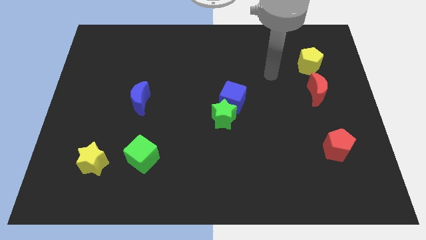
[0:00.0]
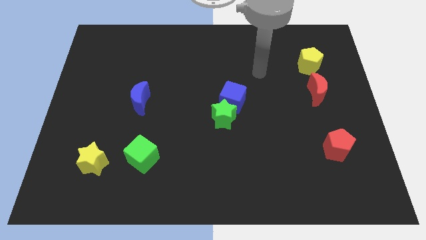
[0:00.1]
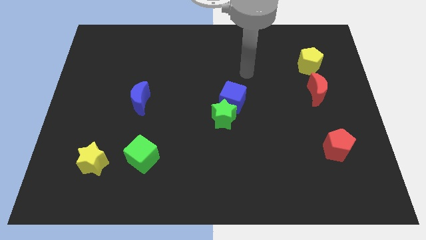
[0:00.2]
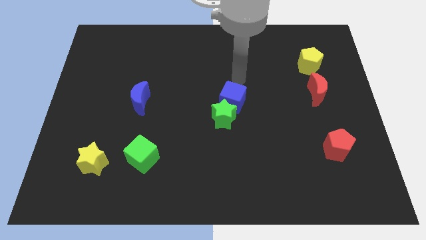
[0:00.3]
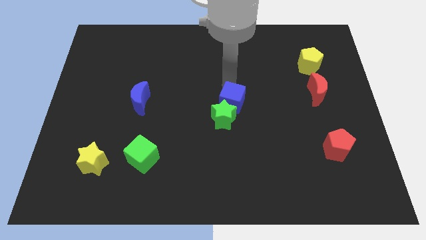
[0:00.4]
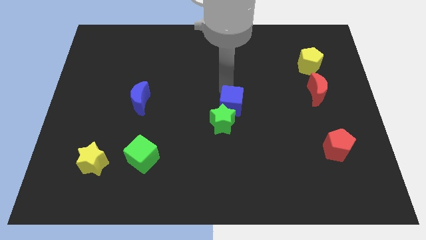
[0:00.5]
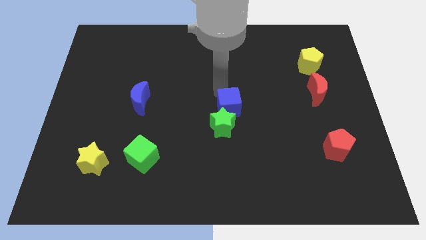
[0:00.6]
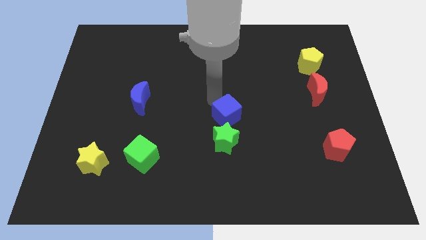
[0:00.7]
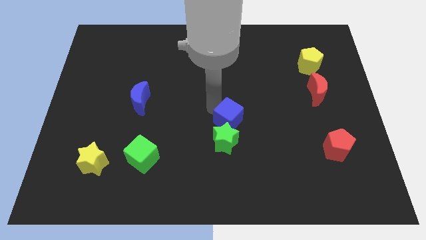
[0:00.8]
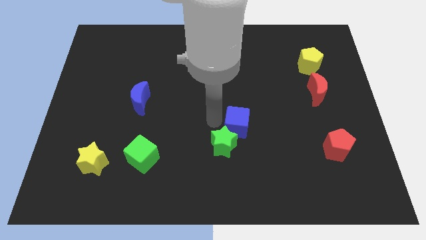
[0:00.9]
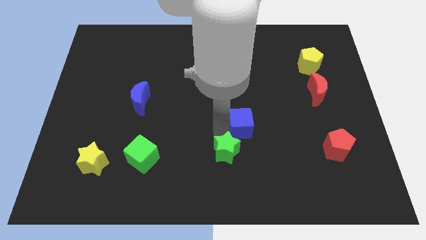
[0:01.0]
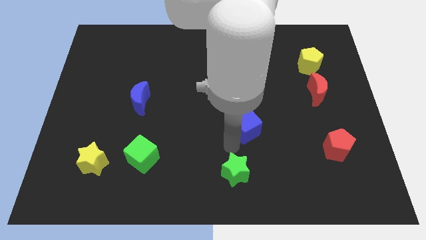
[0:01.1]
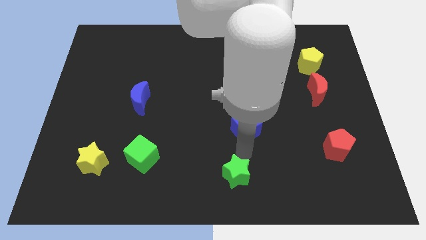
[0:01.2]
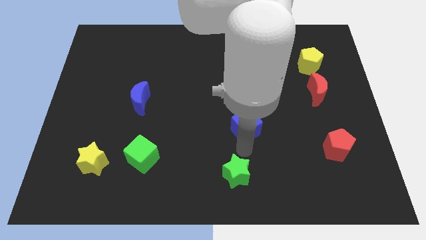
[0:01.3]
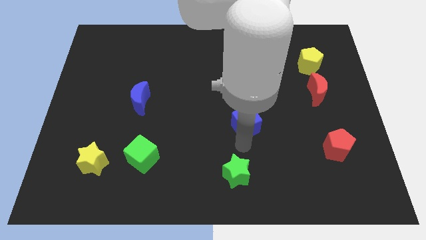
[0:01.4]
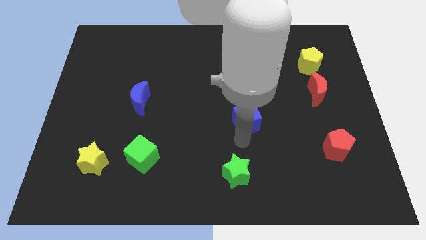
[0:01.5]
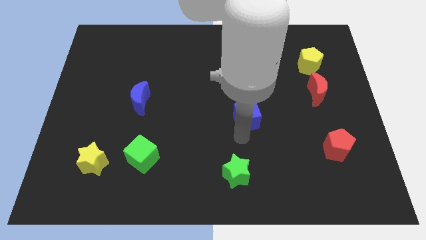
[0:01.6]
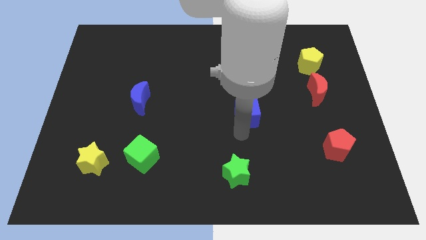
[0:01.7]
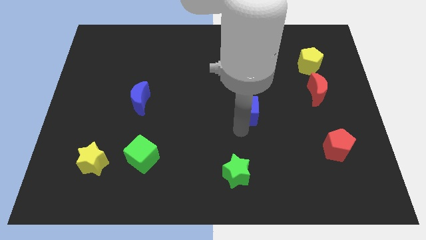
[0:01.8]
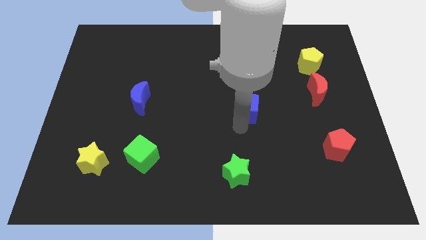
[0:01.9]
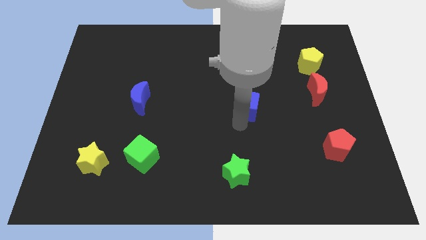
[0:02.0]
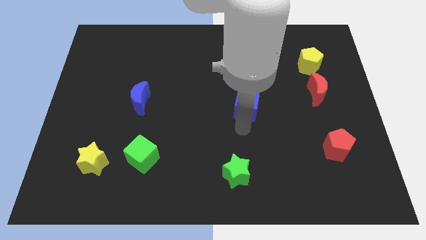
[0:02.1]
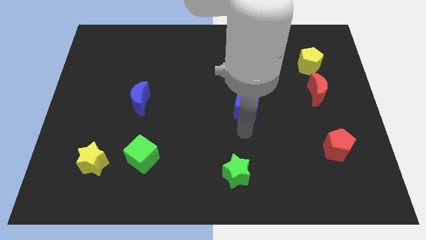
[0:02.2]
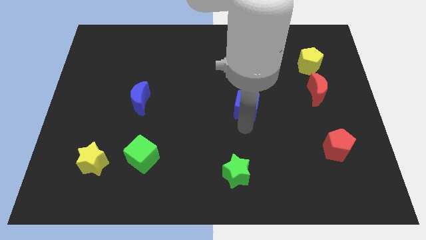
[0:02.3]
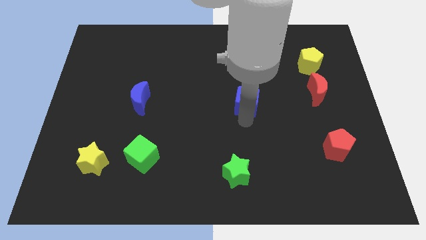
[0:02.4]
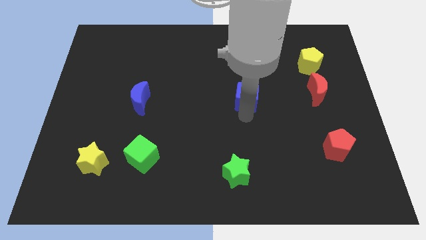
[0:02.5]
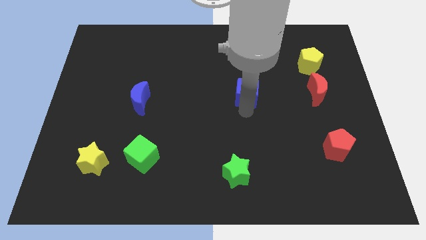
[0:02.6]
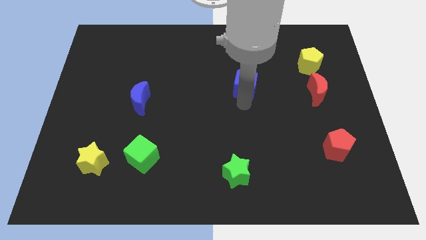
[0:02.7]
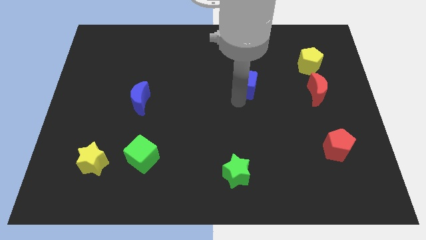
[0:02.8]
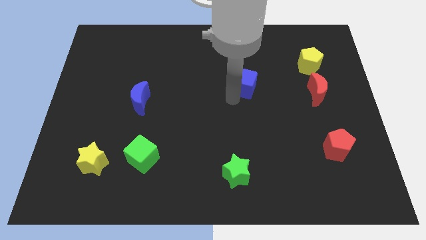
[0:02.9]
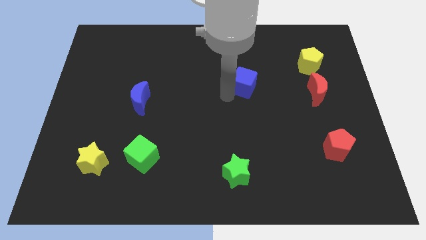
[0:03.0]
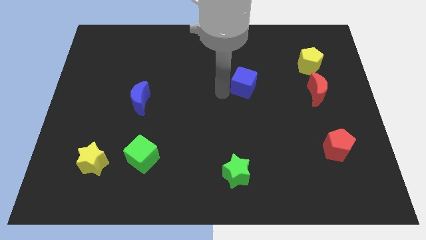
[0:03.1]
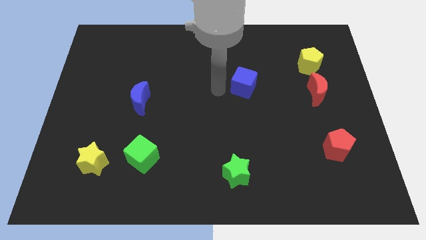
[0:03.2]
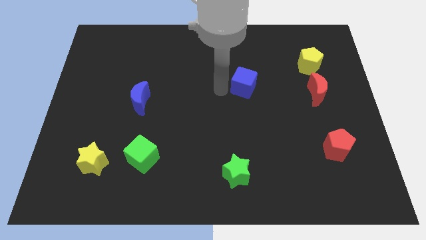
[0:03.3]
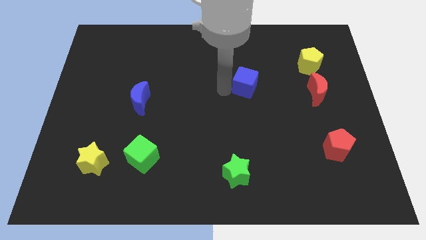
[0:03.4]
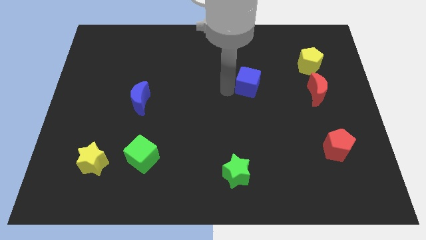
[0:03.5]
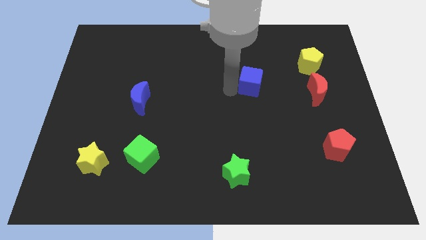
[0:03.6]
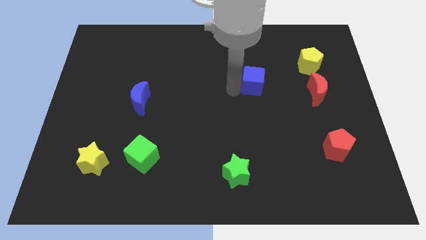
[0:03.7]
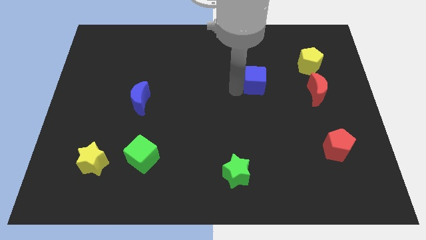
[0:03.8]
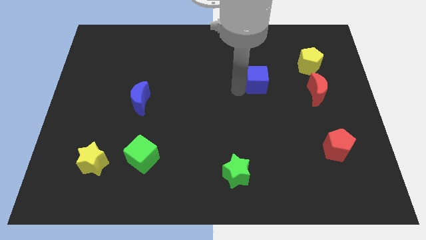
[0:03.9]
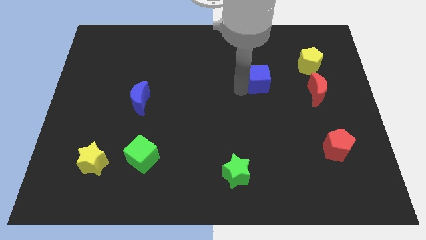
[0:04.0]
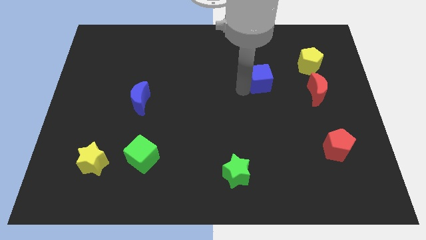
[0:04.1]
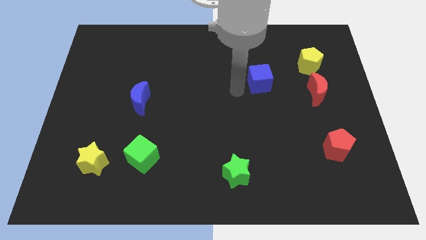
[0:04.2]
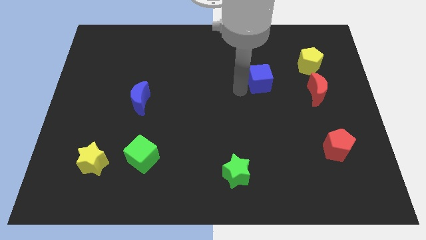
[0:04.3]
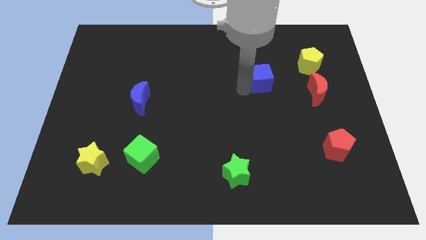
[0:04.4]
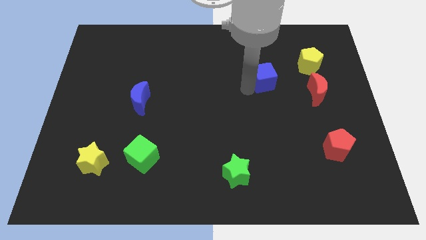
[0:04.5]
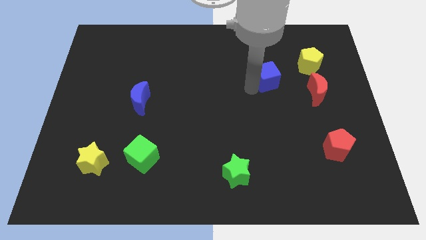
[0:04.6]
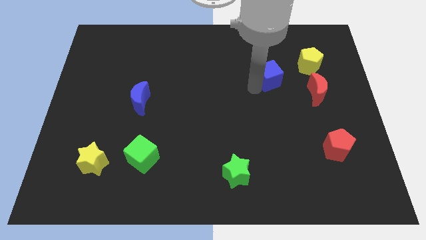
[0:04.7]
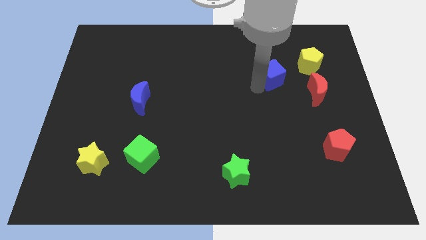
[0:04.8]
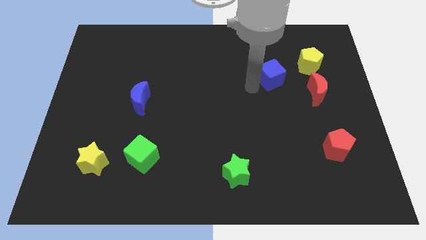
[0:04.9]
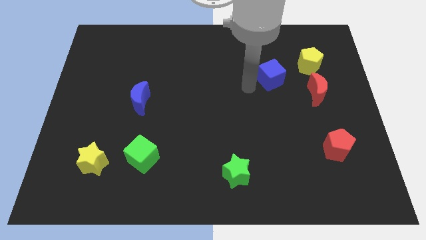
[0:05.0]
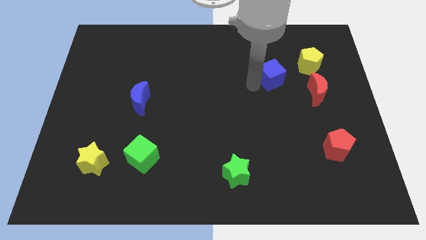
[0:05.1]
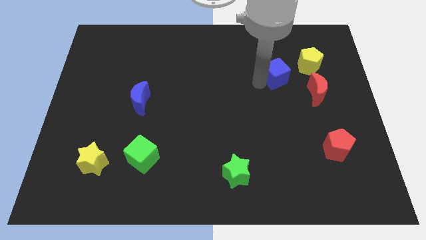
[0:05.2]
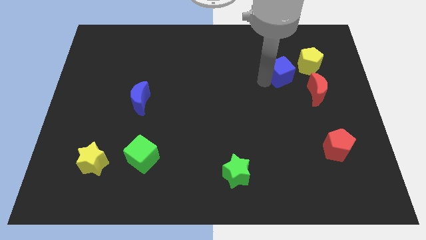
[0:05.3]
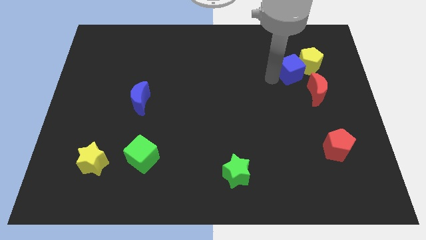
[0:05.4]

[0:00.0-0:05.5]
move the blue cube towards the yellow pentagon

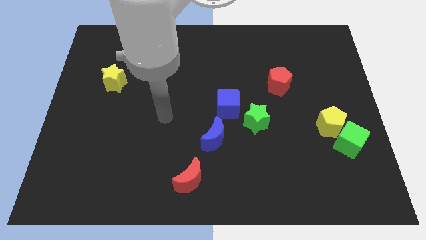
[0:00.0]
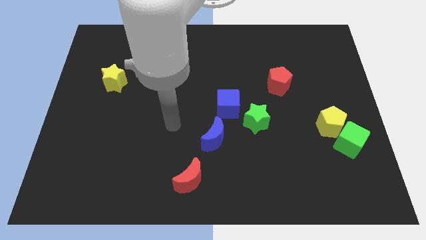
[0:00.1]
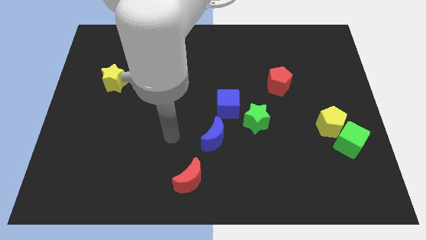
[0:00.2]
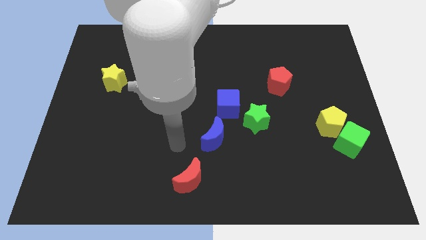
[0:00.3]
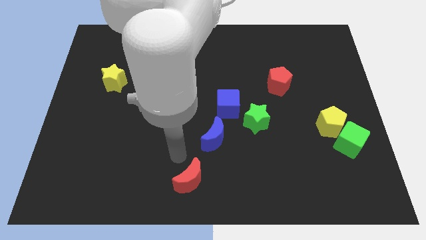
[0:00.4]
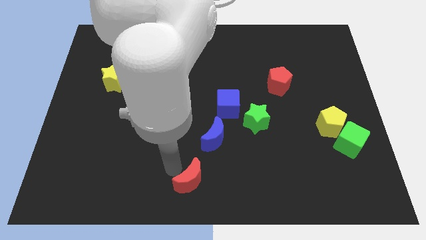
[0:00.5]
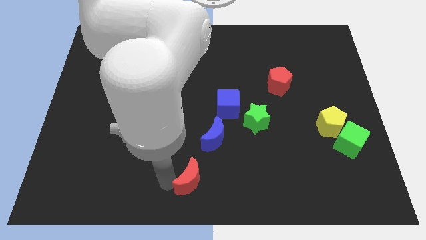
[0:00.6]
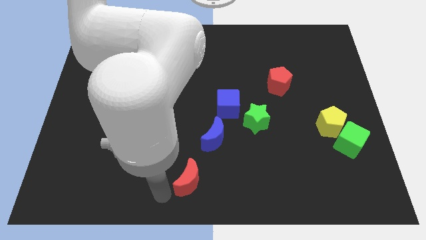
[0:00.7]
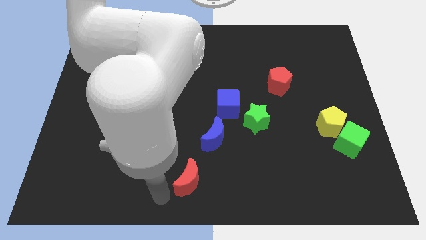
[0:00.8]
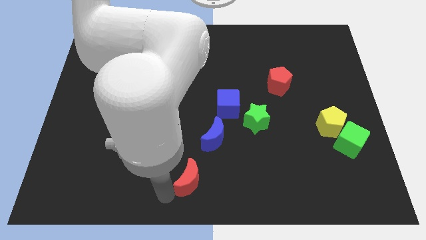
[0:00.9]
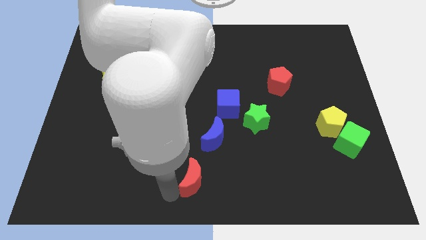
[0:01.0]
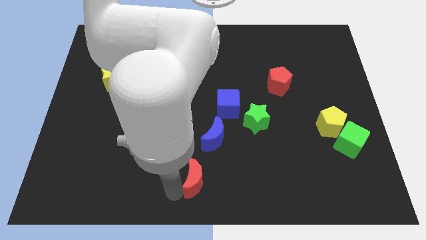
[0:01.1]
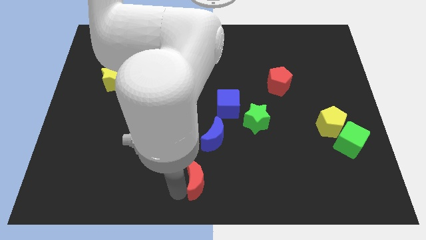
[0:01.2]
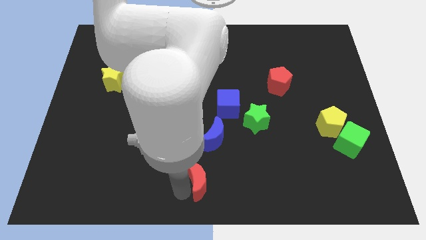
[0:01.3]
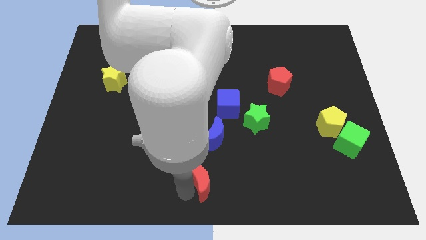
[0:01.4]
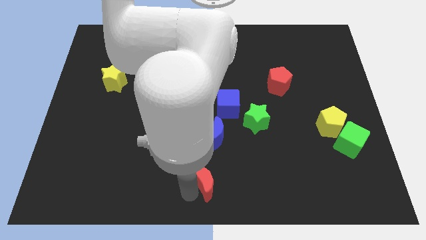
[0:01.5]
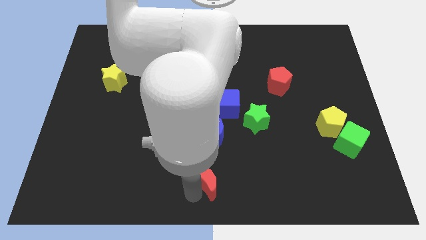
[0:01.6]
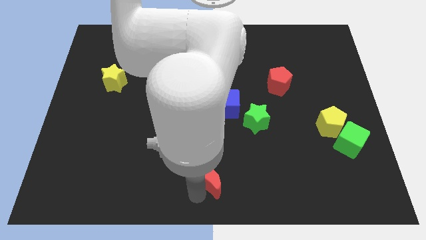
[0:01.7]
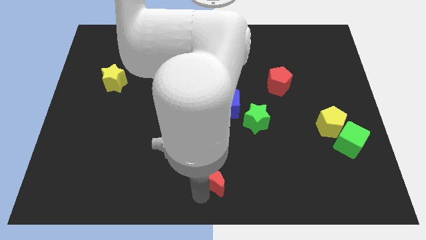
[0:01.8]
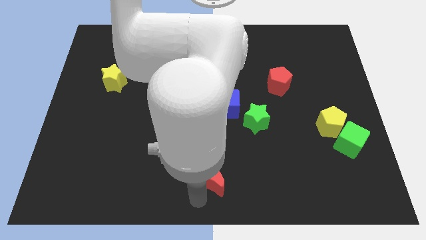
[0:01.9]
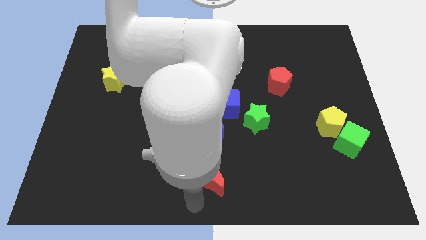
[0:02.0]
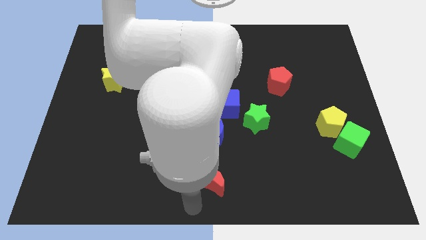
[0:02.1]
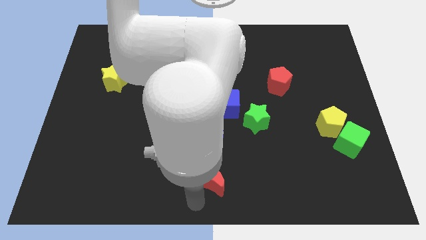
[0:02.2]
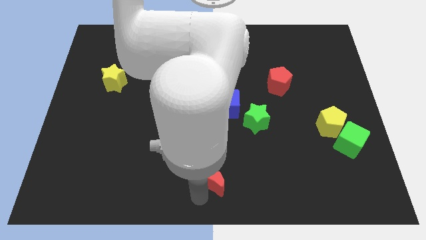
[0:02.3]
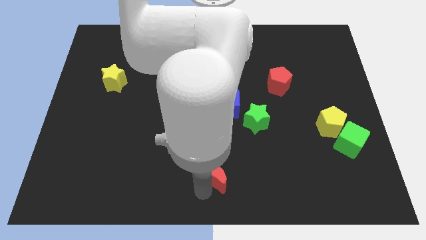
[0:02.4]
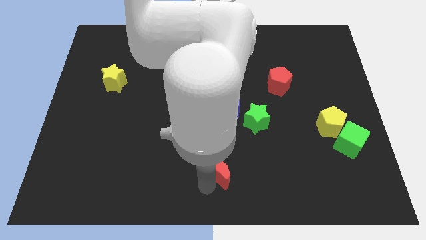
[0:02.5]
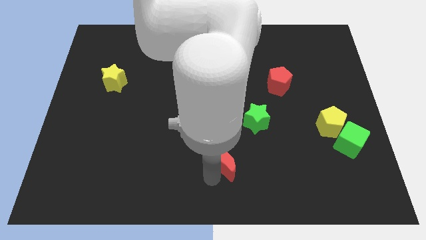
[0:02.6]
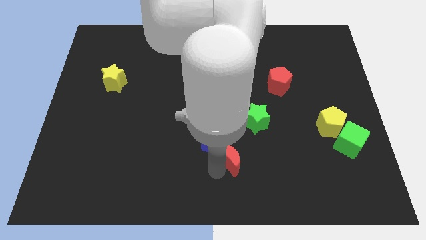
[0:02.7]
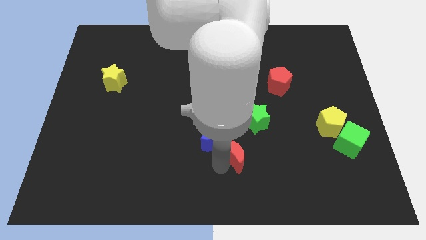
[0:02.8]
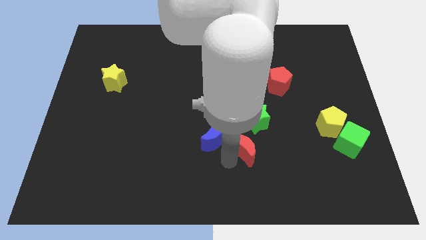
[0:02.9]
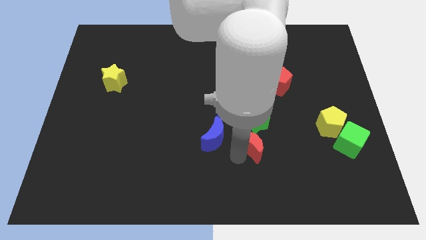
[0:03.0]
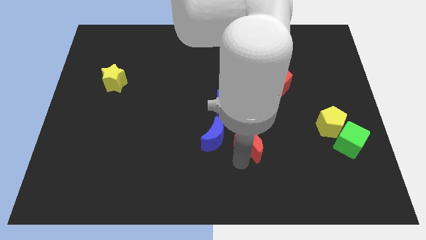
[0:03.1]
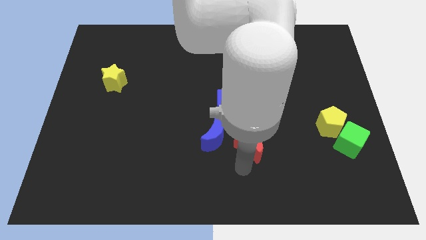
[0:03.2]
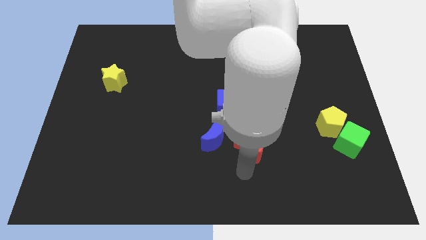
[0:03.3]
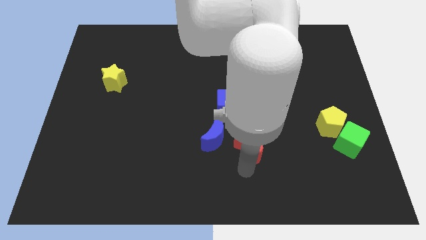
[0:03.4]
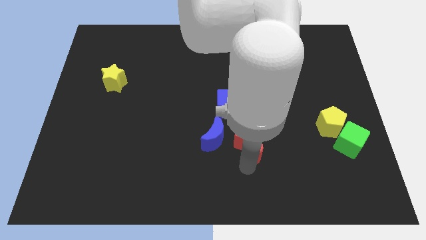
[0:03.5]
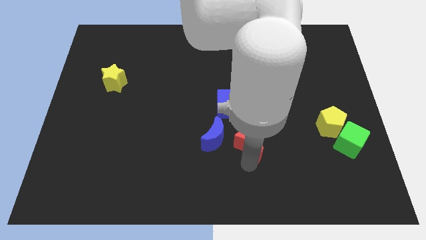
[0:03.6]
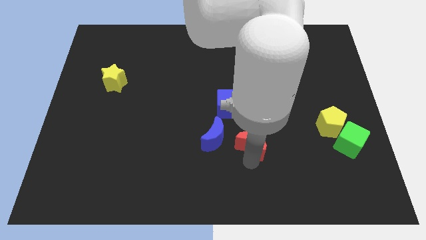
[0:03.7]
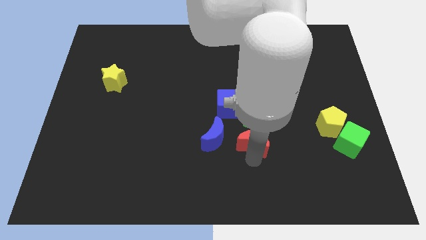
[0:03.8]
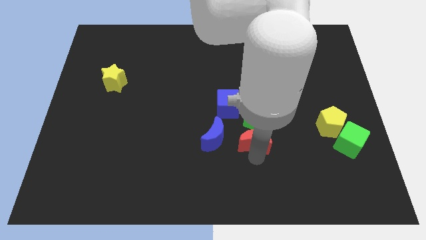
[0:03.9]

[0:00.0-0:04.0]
slide the red moon towards the green star
